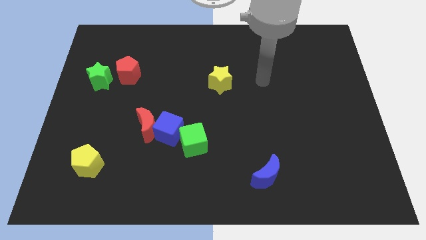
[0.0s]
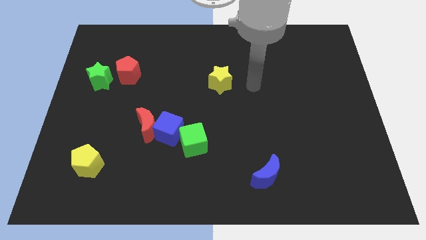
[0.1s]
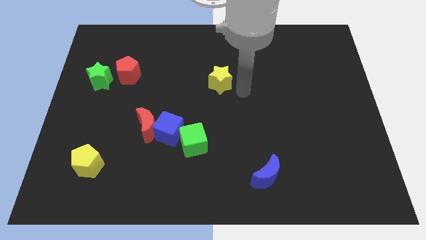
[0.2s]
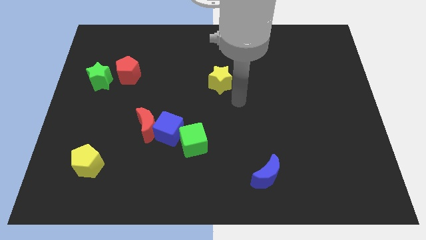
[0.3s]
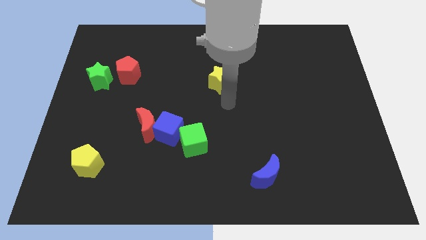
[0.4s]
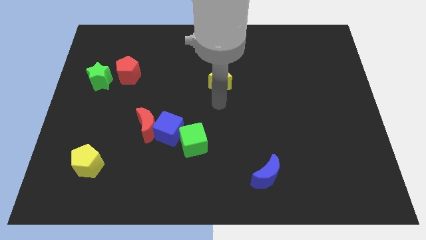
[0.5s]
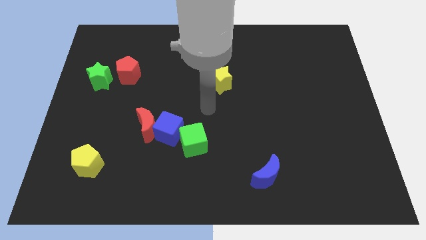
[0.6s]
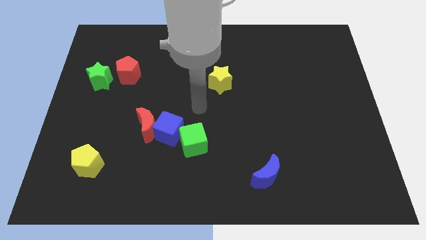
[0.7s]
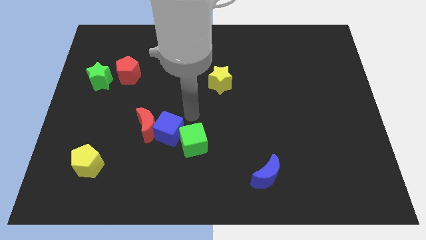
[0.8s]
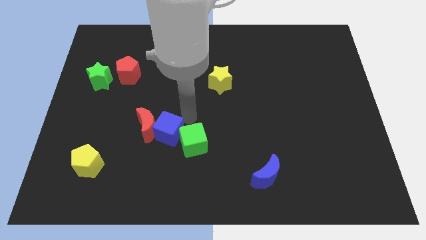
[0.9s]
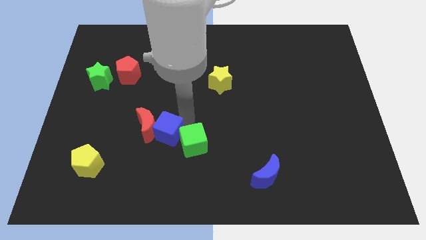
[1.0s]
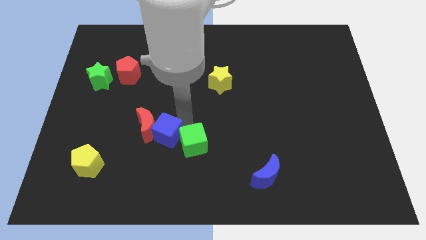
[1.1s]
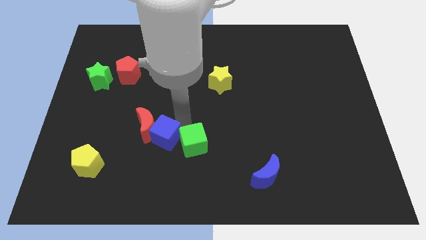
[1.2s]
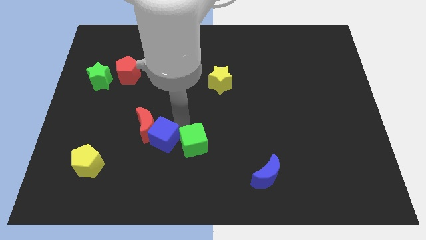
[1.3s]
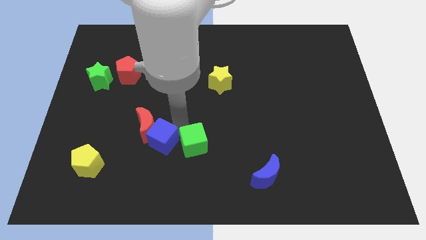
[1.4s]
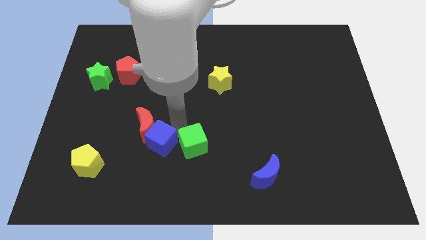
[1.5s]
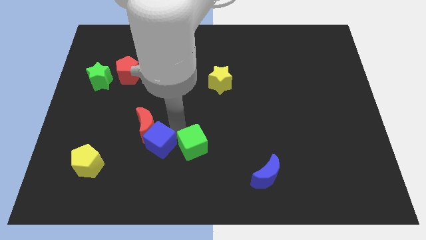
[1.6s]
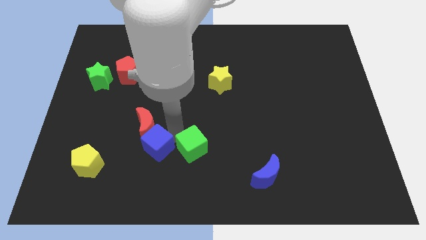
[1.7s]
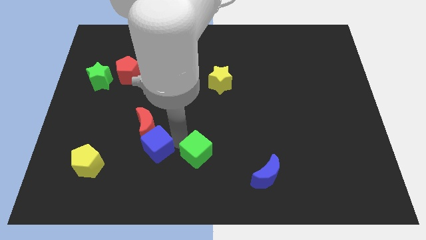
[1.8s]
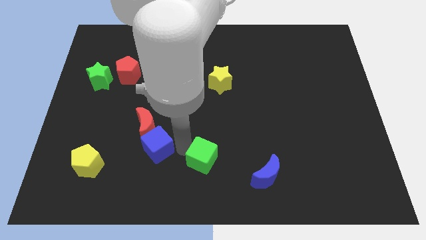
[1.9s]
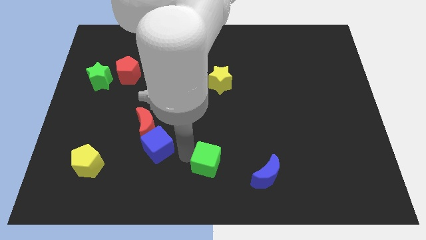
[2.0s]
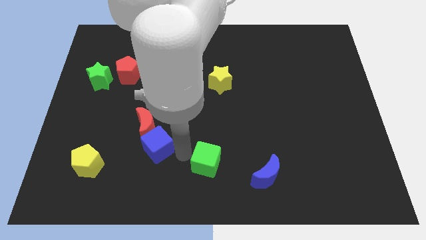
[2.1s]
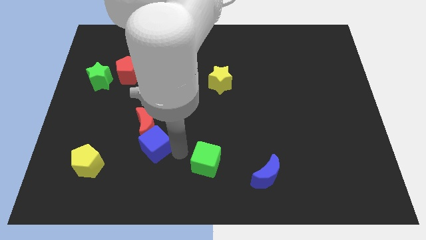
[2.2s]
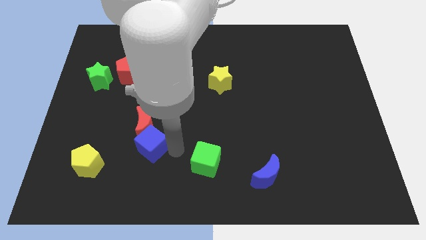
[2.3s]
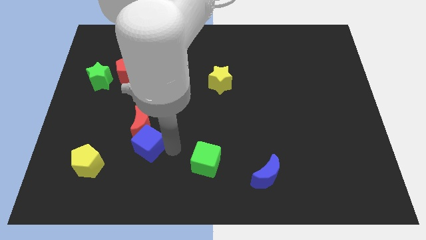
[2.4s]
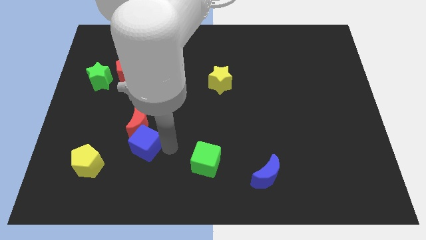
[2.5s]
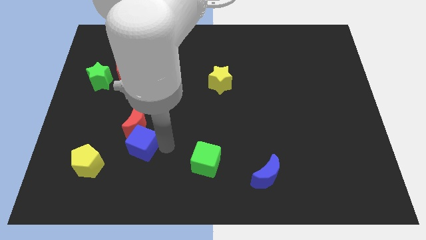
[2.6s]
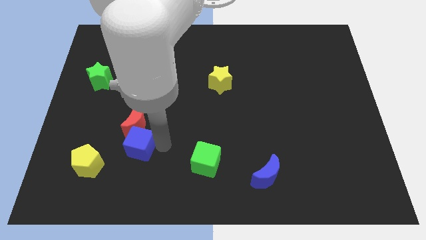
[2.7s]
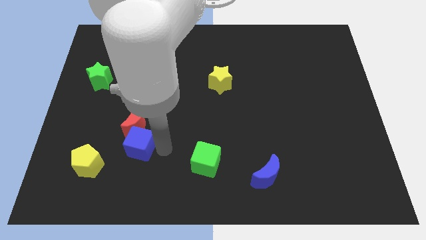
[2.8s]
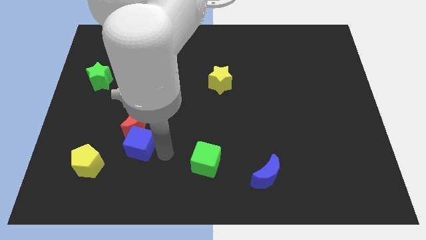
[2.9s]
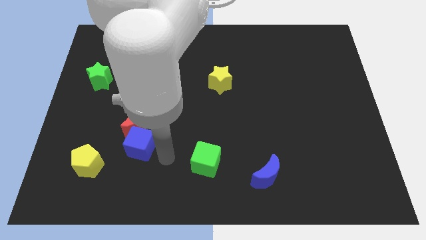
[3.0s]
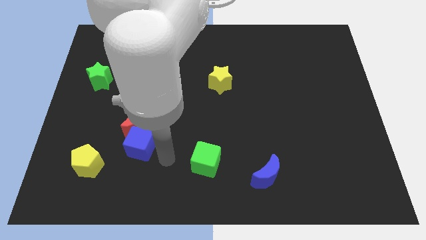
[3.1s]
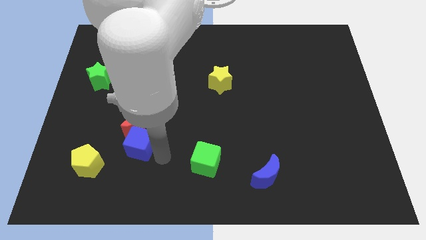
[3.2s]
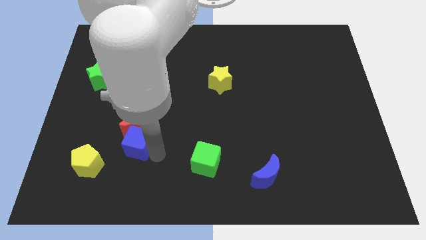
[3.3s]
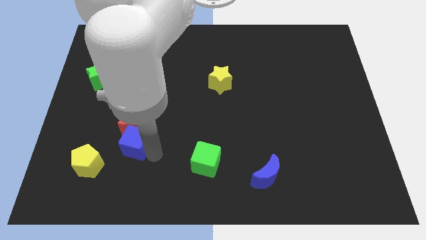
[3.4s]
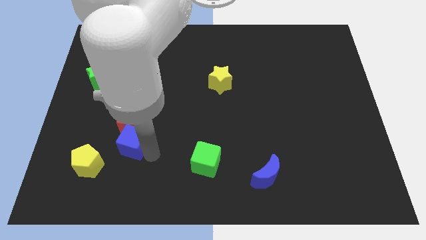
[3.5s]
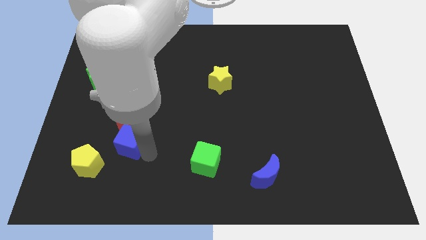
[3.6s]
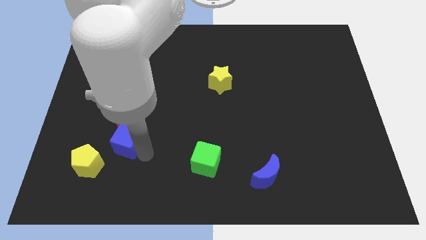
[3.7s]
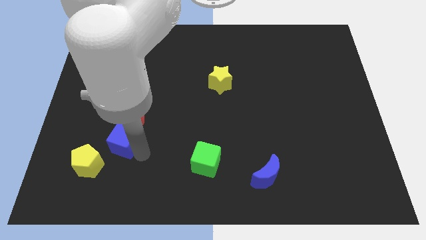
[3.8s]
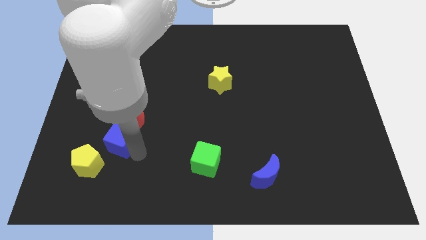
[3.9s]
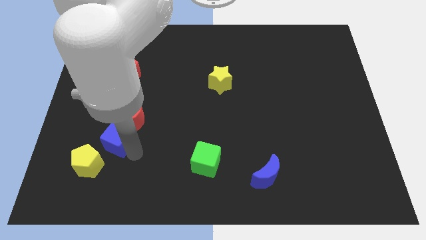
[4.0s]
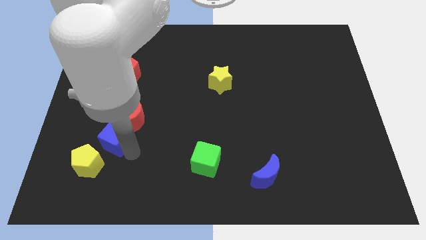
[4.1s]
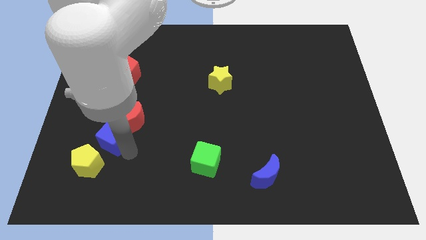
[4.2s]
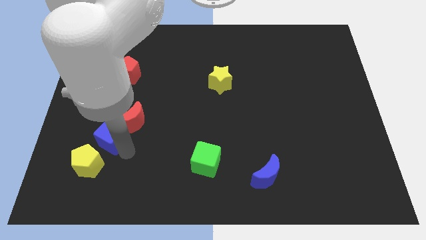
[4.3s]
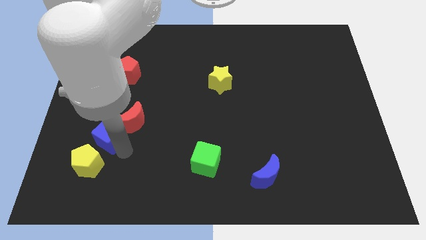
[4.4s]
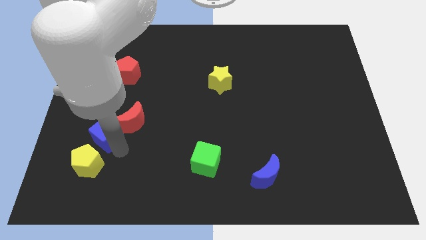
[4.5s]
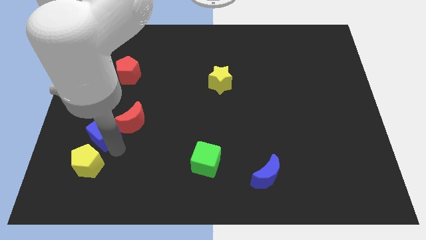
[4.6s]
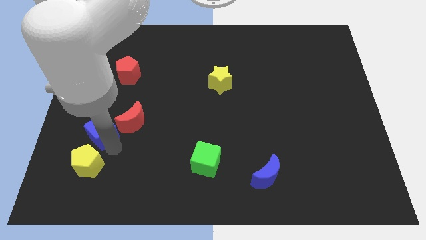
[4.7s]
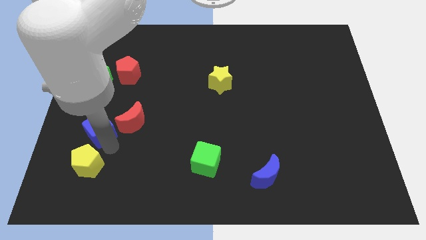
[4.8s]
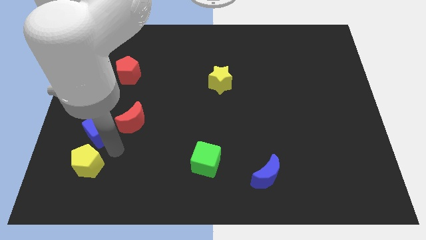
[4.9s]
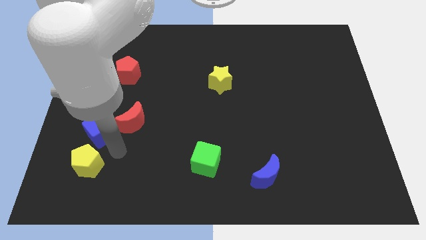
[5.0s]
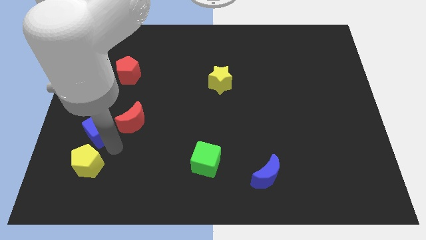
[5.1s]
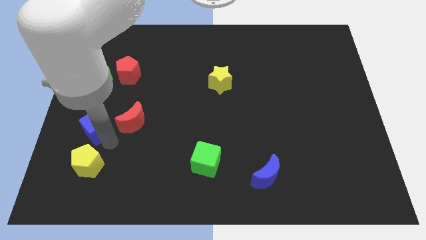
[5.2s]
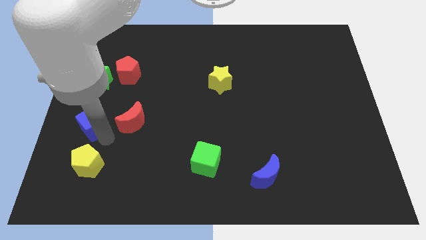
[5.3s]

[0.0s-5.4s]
push the blue cube to the center left

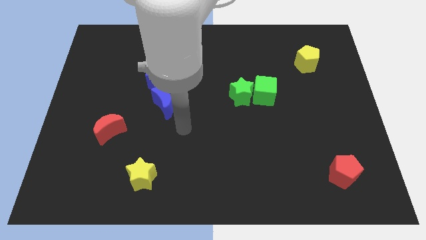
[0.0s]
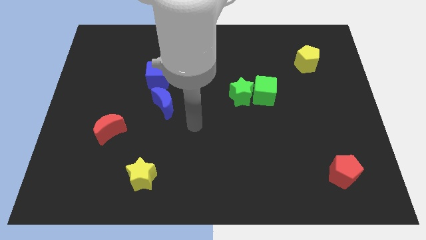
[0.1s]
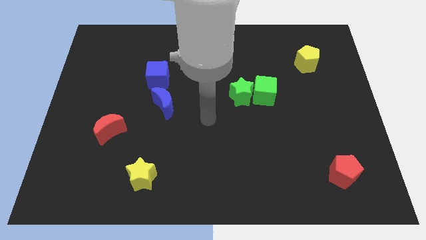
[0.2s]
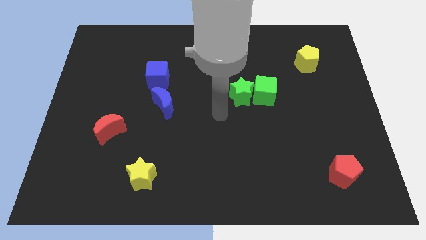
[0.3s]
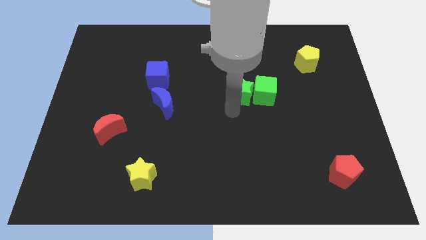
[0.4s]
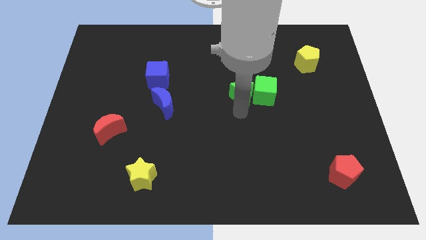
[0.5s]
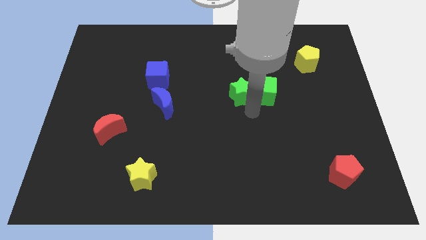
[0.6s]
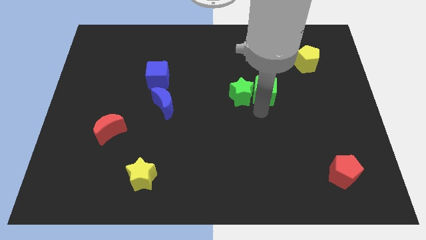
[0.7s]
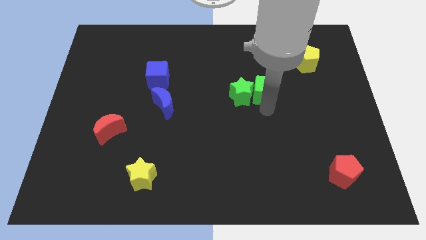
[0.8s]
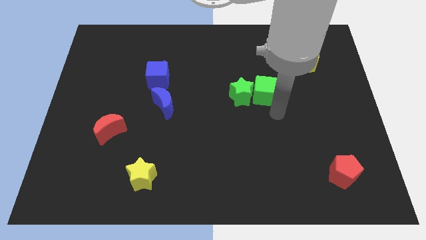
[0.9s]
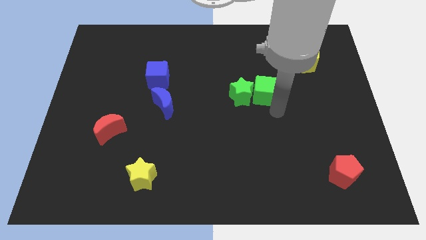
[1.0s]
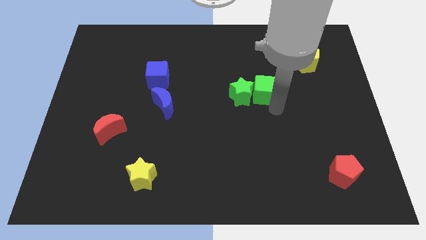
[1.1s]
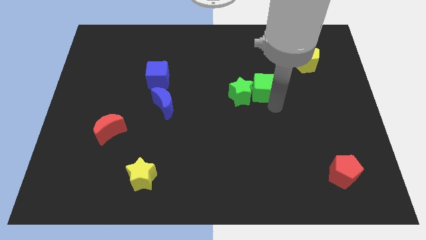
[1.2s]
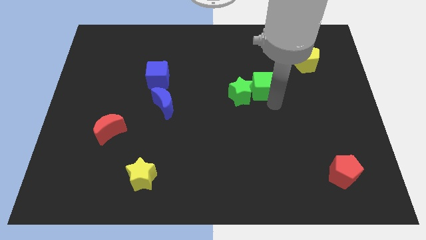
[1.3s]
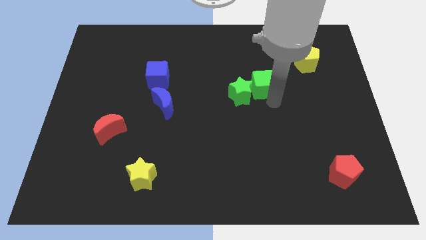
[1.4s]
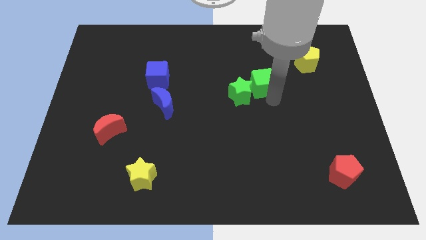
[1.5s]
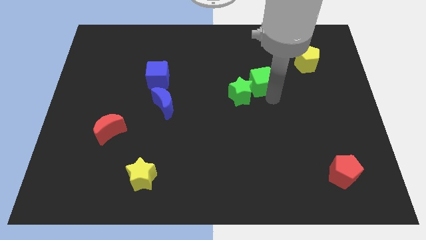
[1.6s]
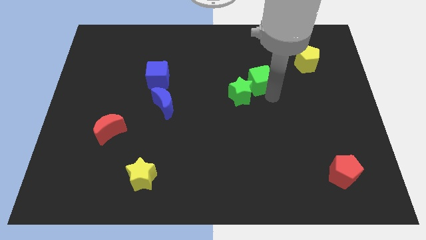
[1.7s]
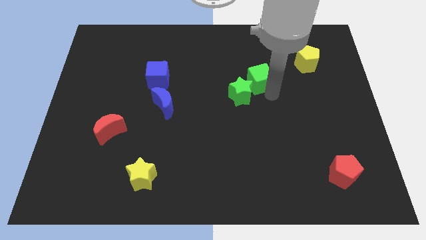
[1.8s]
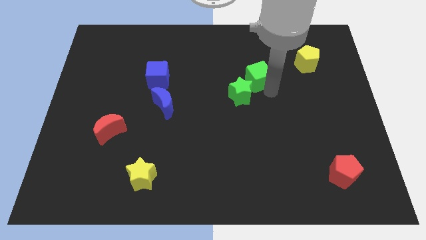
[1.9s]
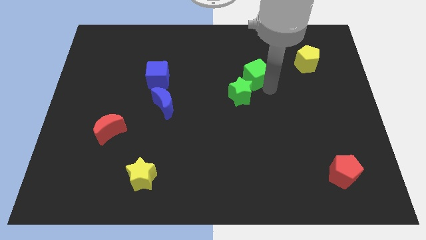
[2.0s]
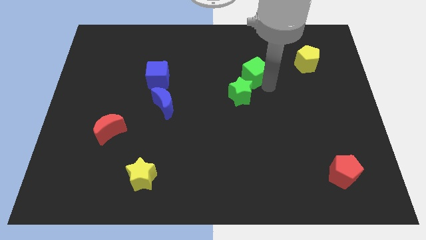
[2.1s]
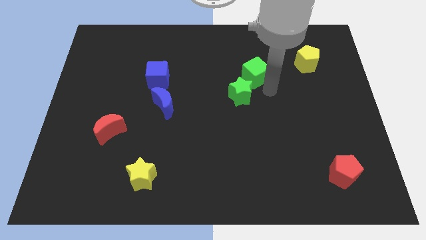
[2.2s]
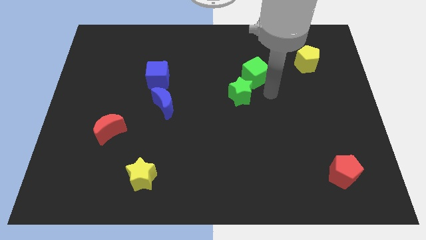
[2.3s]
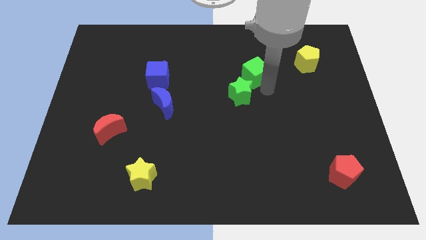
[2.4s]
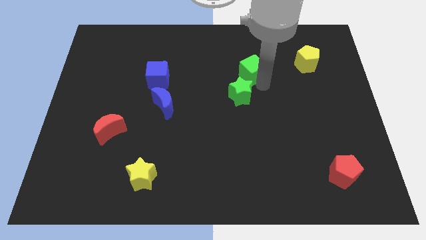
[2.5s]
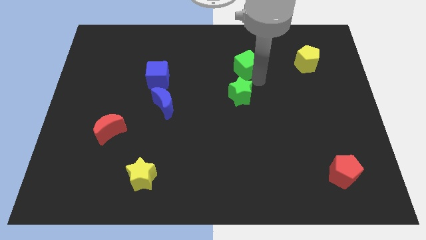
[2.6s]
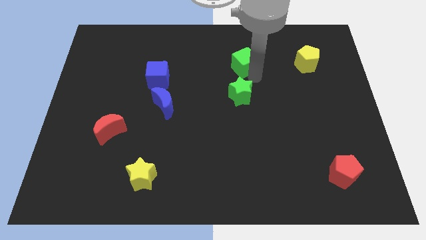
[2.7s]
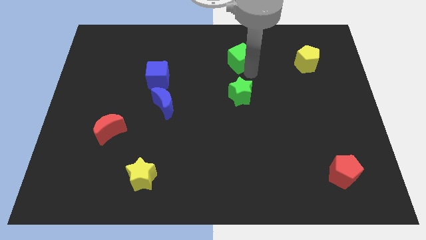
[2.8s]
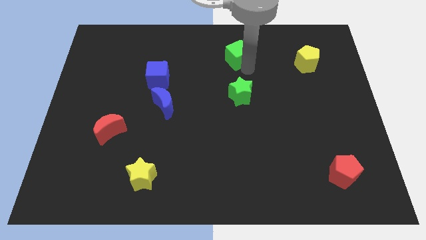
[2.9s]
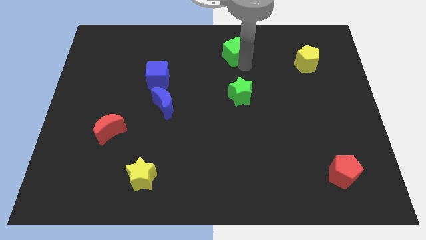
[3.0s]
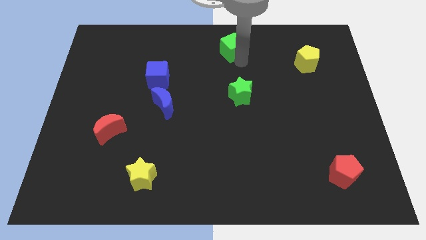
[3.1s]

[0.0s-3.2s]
push the green cube to the top
